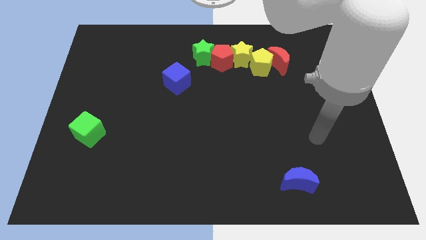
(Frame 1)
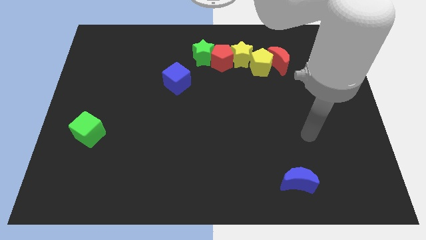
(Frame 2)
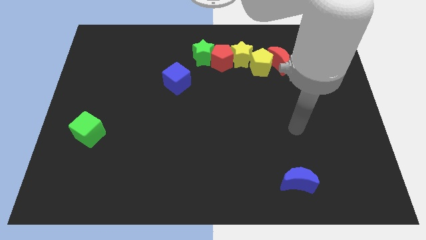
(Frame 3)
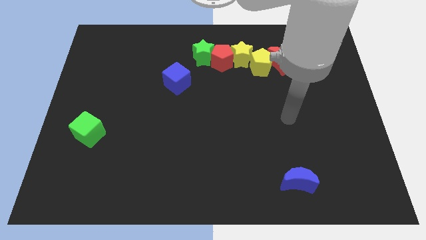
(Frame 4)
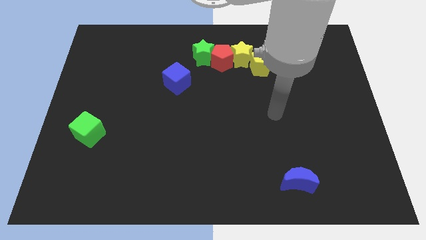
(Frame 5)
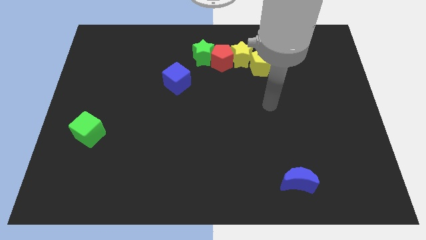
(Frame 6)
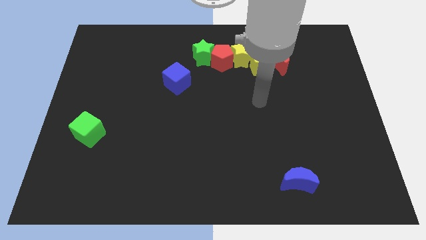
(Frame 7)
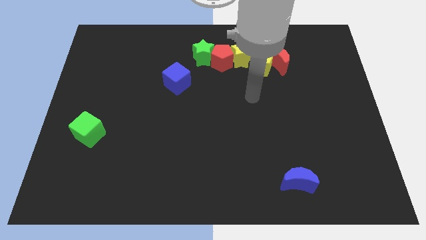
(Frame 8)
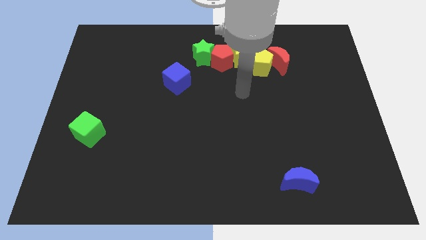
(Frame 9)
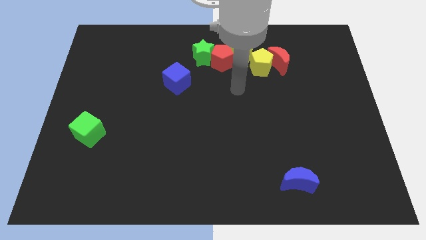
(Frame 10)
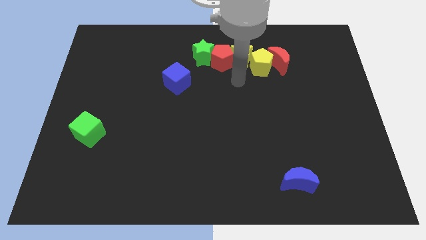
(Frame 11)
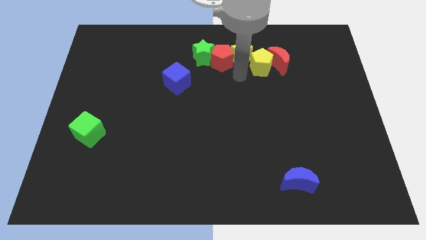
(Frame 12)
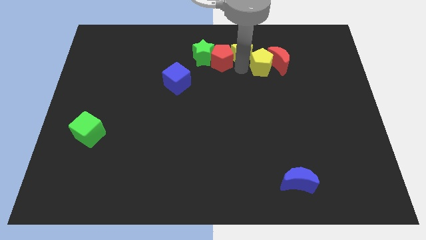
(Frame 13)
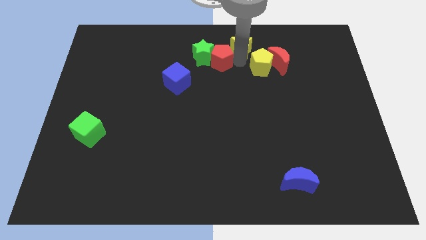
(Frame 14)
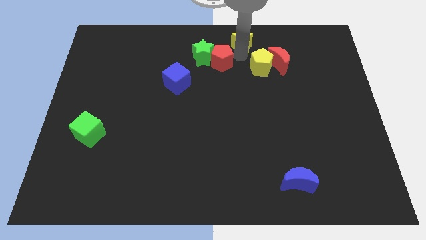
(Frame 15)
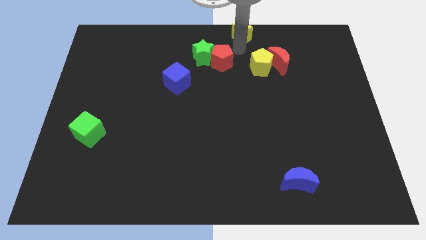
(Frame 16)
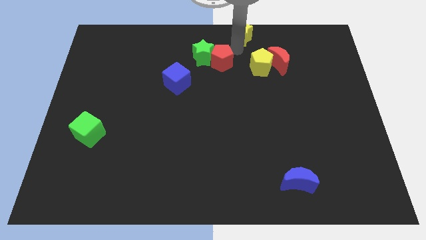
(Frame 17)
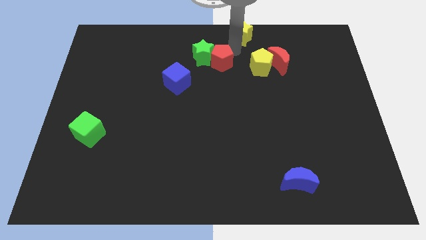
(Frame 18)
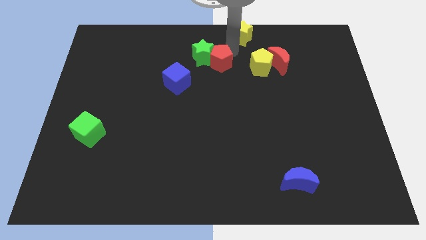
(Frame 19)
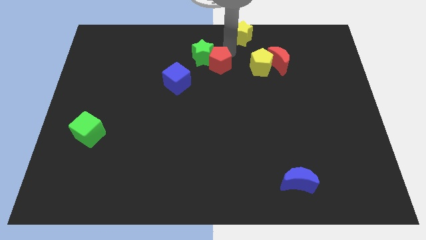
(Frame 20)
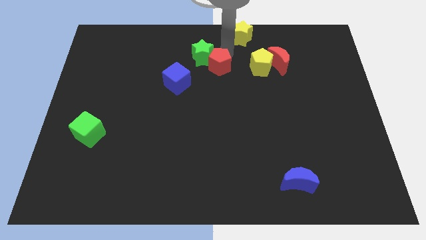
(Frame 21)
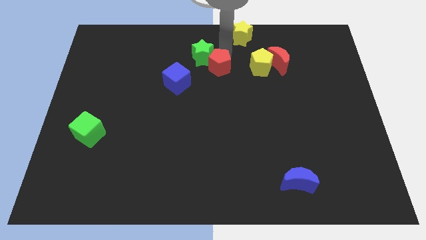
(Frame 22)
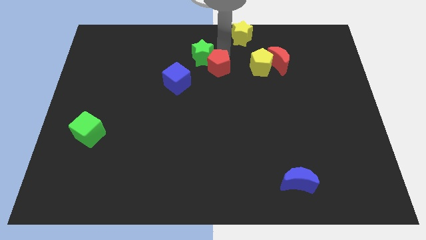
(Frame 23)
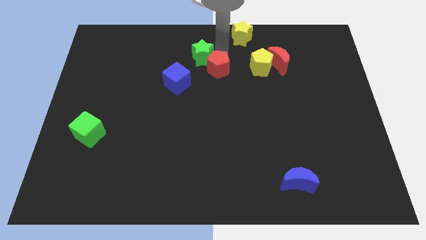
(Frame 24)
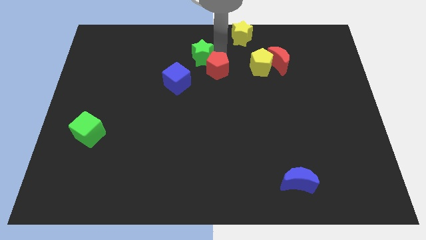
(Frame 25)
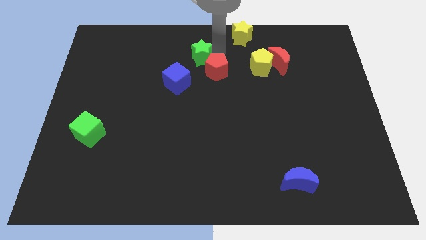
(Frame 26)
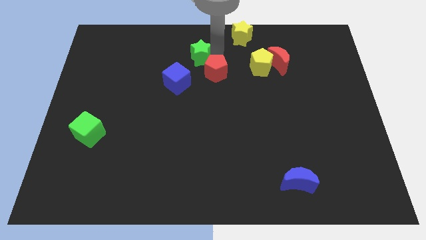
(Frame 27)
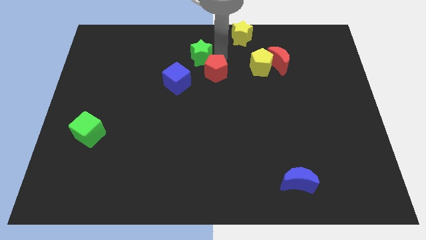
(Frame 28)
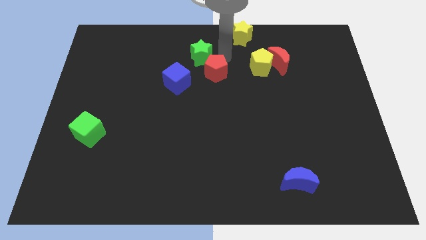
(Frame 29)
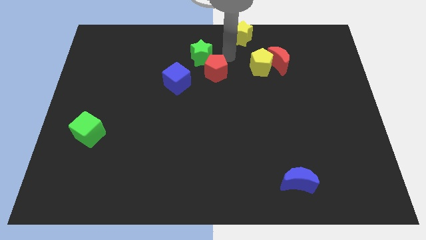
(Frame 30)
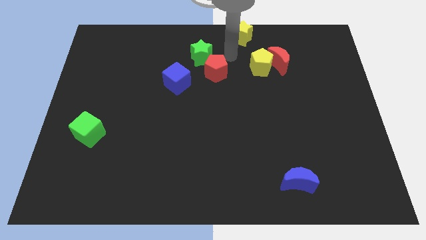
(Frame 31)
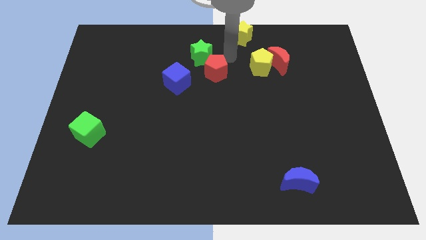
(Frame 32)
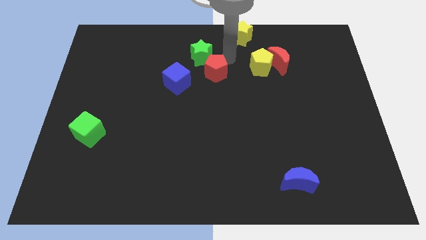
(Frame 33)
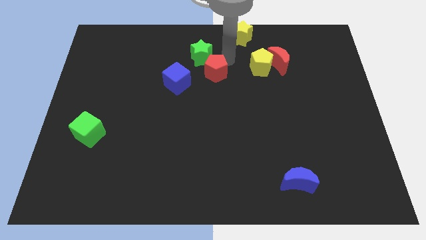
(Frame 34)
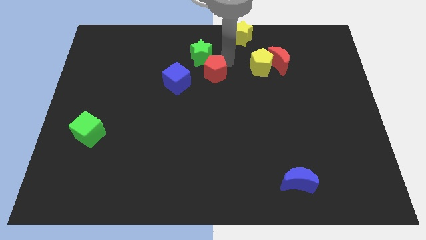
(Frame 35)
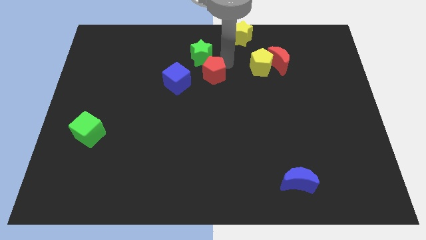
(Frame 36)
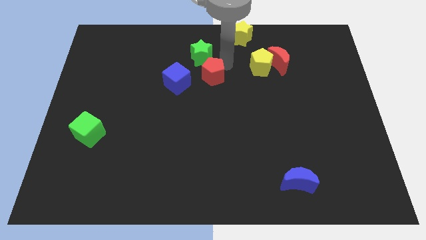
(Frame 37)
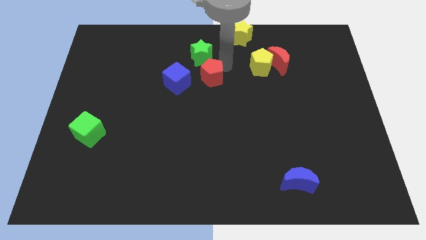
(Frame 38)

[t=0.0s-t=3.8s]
separate the red pentagon from the group

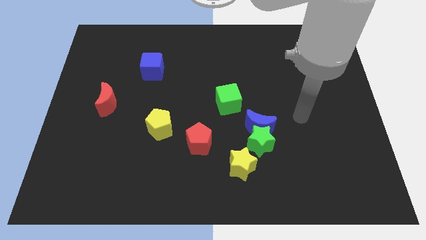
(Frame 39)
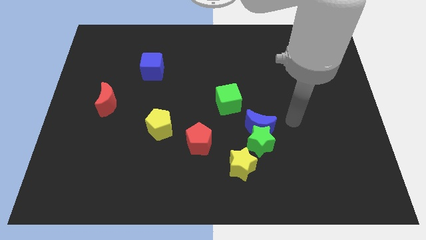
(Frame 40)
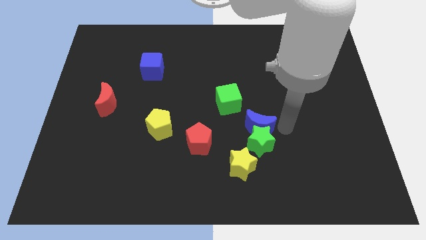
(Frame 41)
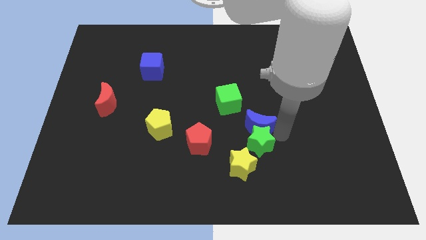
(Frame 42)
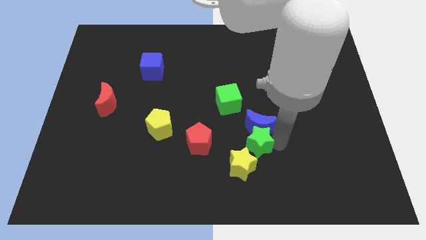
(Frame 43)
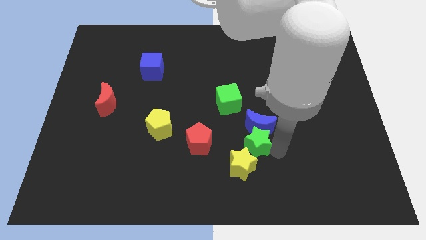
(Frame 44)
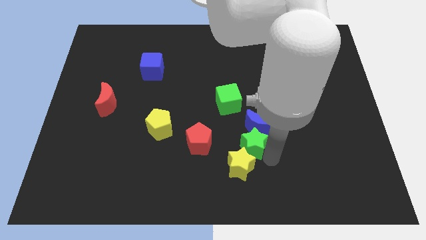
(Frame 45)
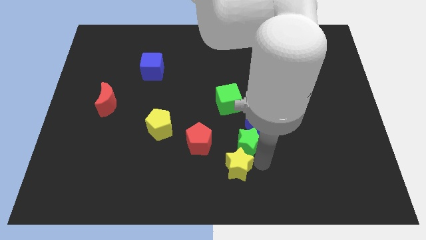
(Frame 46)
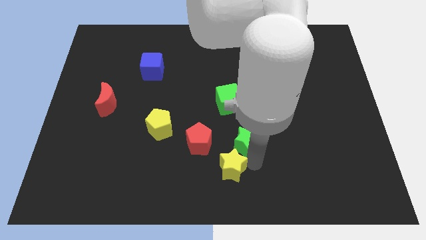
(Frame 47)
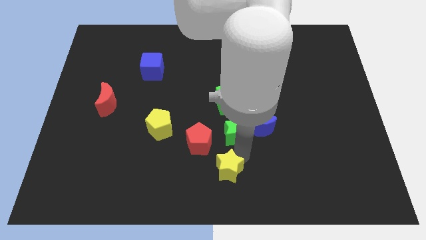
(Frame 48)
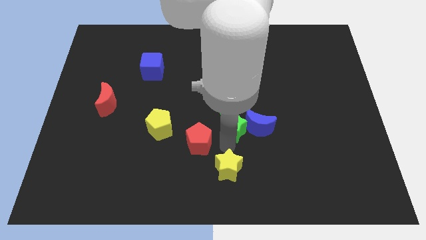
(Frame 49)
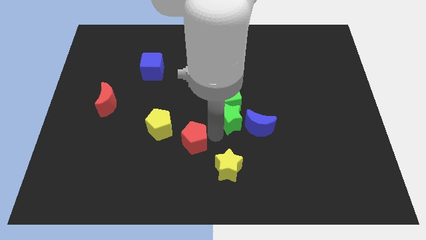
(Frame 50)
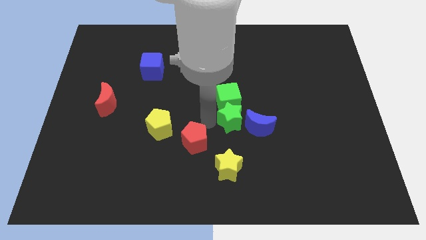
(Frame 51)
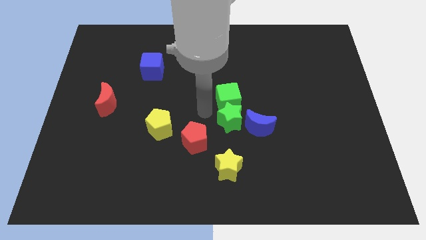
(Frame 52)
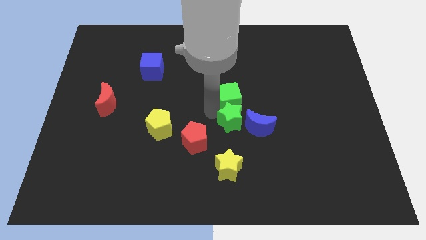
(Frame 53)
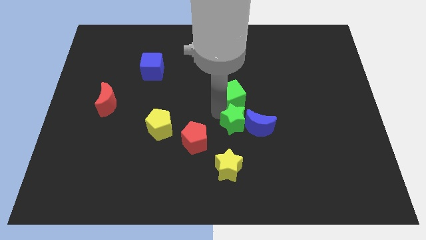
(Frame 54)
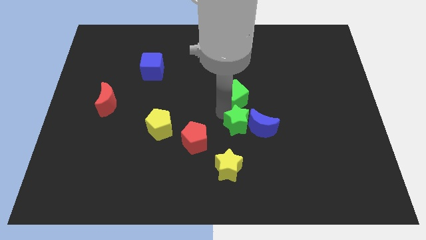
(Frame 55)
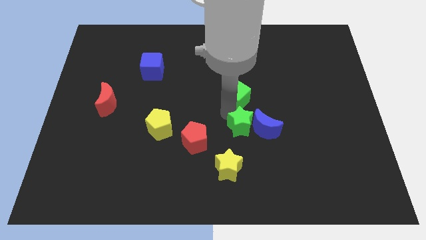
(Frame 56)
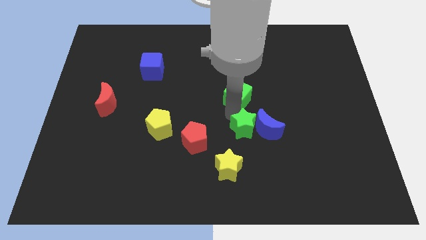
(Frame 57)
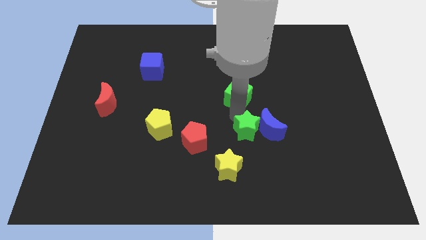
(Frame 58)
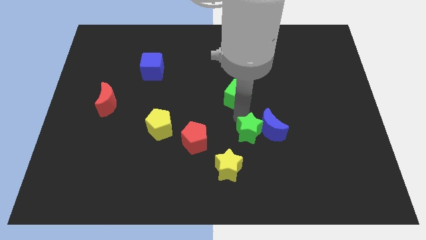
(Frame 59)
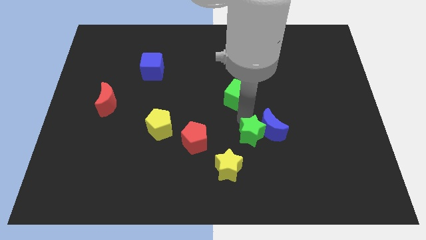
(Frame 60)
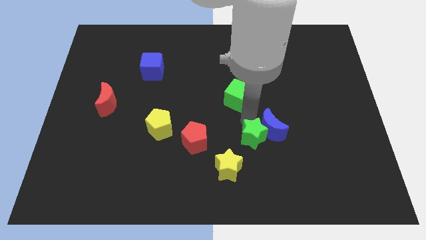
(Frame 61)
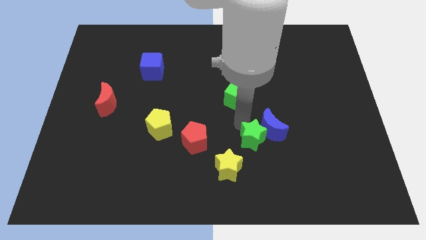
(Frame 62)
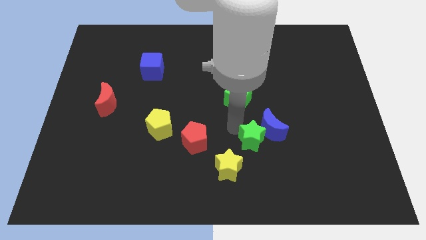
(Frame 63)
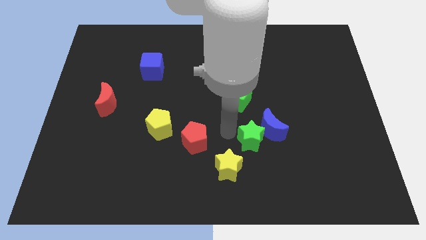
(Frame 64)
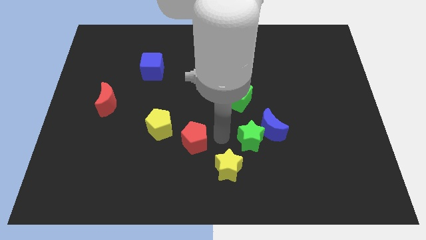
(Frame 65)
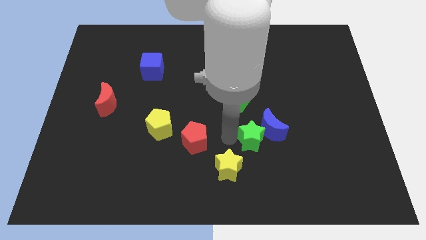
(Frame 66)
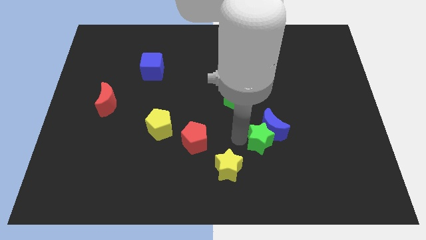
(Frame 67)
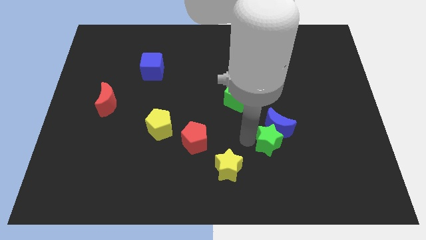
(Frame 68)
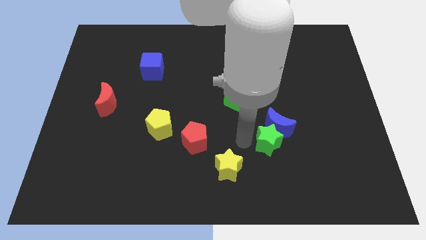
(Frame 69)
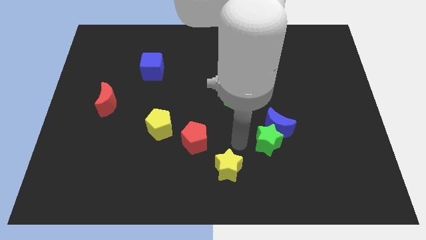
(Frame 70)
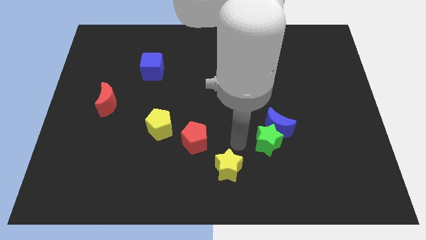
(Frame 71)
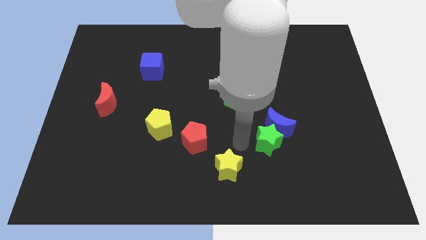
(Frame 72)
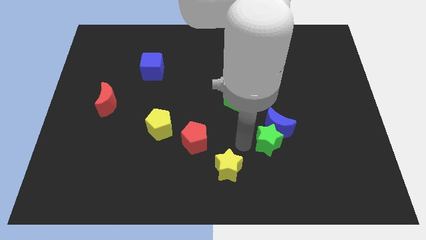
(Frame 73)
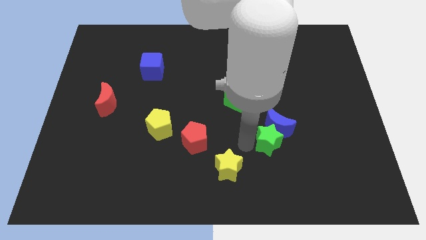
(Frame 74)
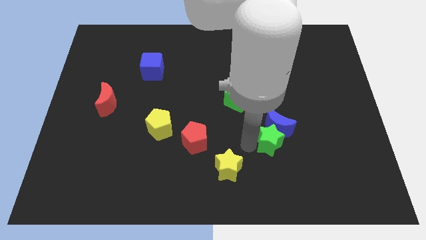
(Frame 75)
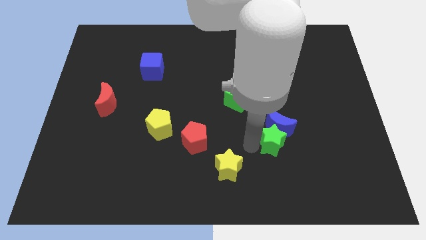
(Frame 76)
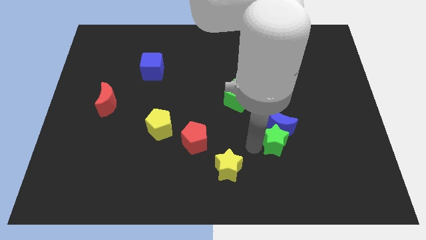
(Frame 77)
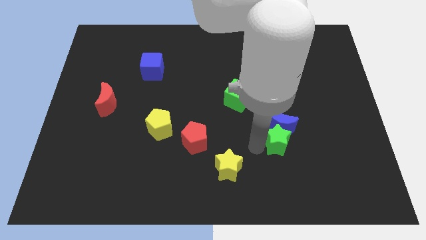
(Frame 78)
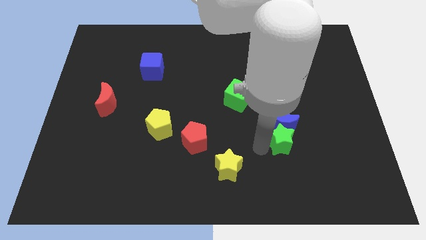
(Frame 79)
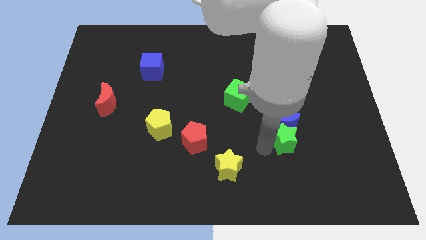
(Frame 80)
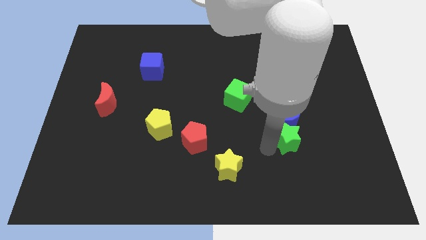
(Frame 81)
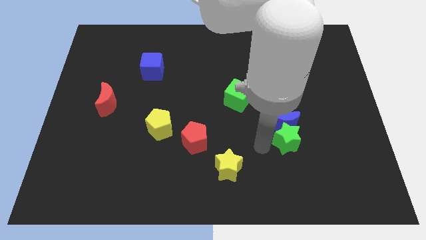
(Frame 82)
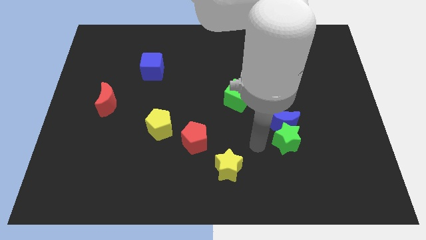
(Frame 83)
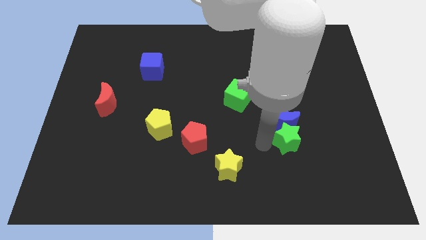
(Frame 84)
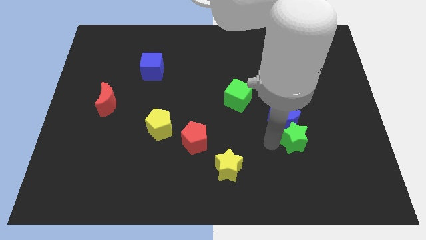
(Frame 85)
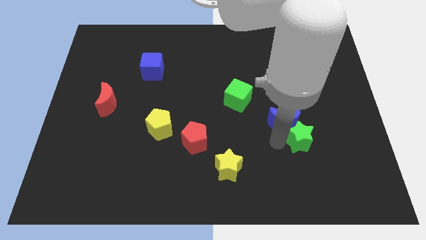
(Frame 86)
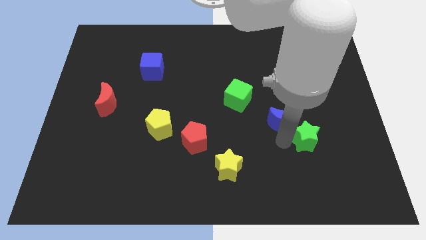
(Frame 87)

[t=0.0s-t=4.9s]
move the green star away from the blue moon and yellow star

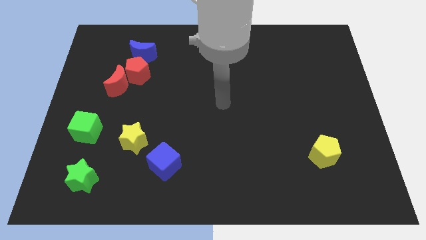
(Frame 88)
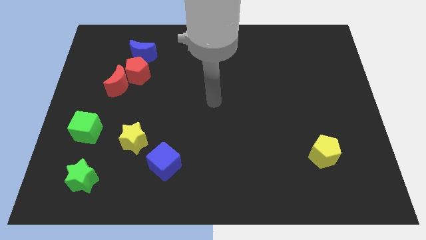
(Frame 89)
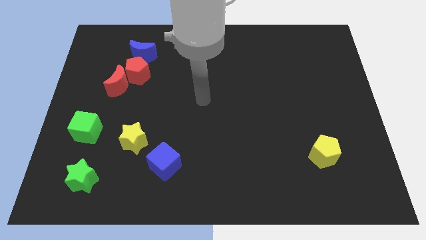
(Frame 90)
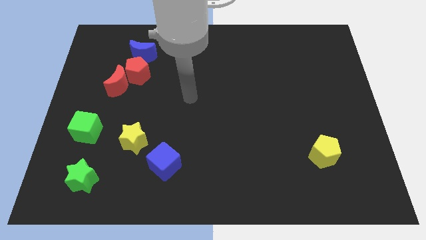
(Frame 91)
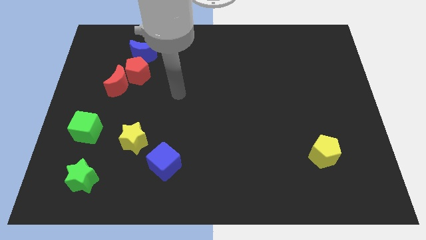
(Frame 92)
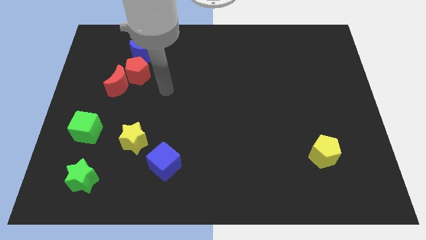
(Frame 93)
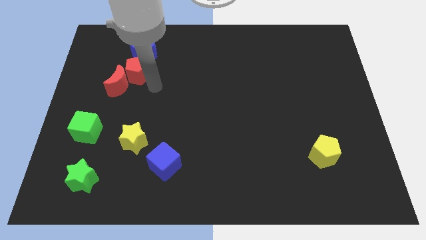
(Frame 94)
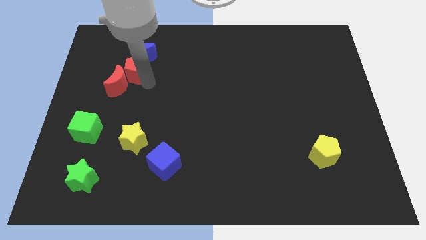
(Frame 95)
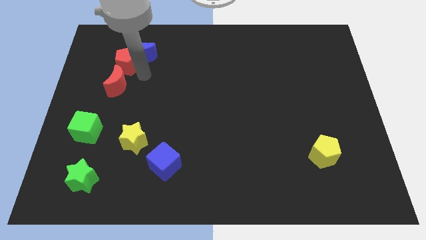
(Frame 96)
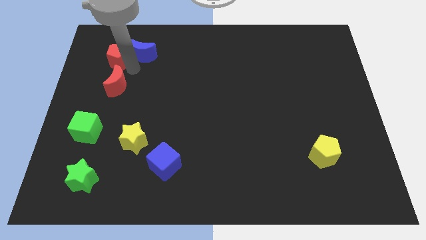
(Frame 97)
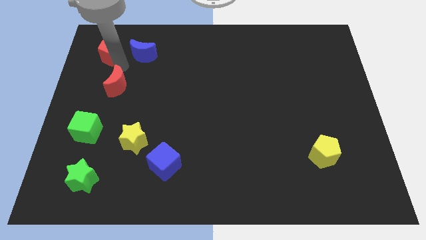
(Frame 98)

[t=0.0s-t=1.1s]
move the red moon away from the red pentagon
